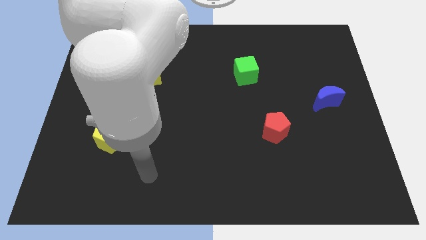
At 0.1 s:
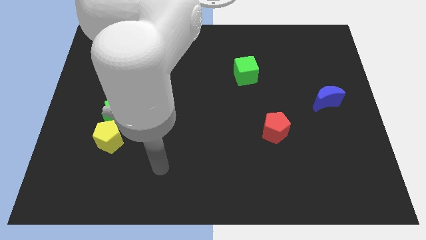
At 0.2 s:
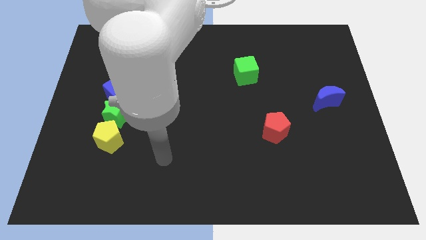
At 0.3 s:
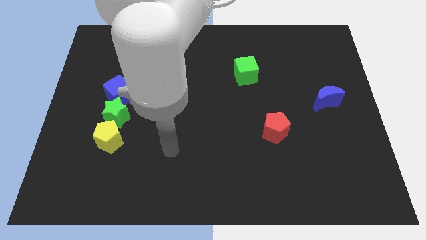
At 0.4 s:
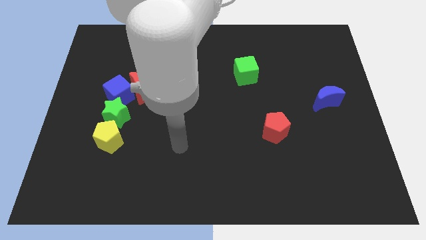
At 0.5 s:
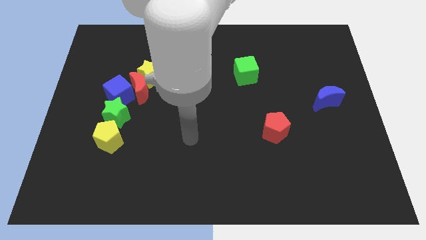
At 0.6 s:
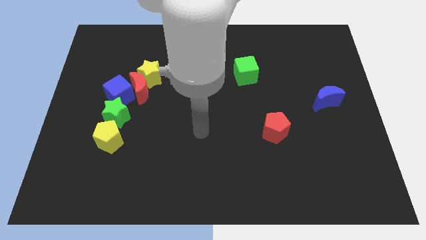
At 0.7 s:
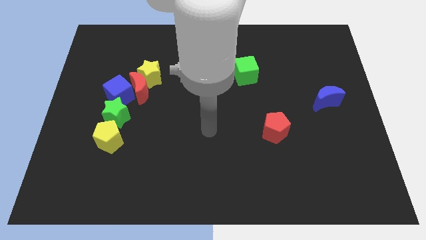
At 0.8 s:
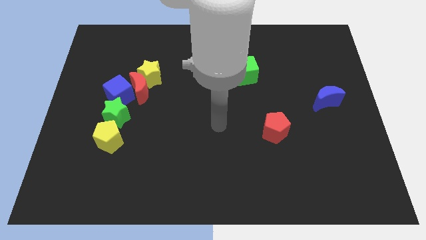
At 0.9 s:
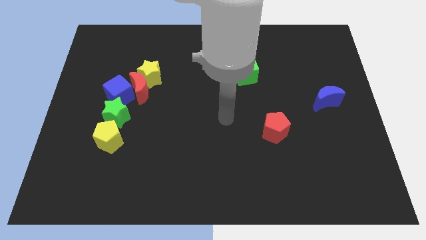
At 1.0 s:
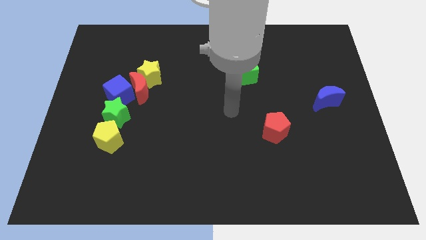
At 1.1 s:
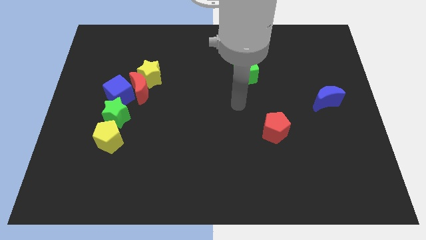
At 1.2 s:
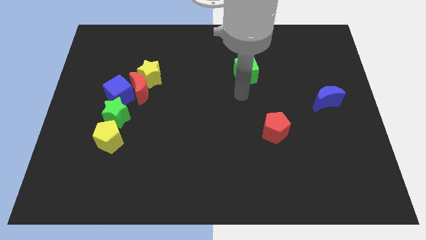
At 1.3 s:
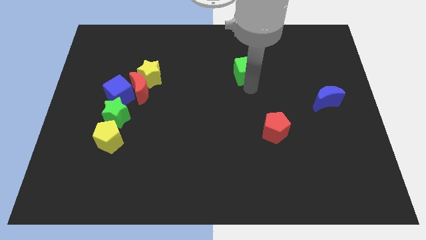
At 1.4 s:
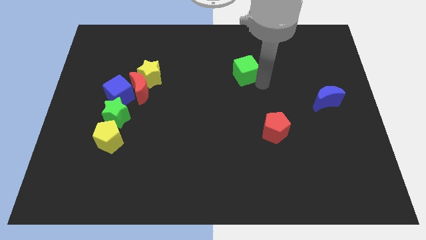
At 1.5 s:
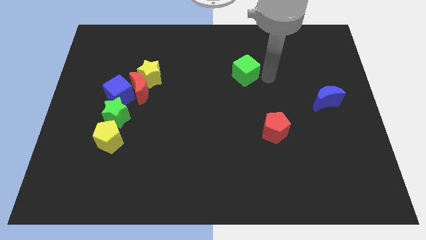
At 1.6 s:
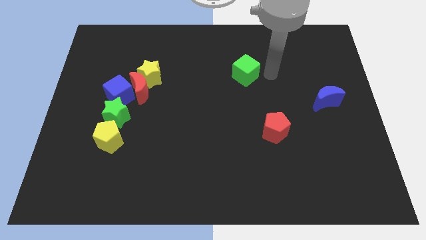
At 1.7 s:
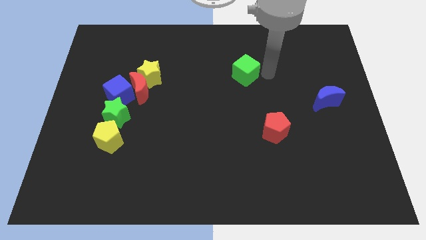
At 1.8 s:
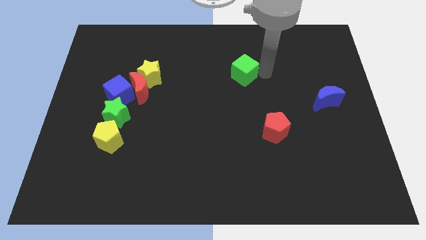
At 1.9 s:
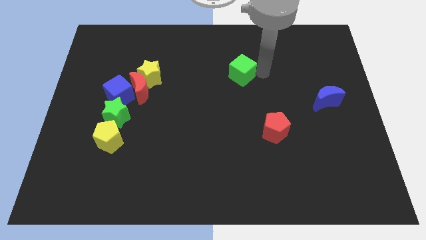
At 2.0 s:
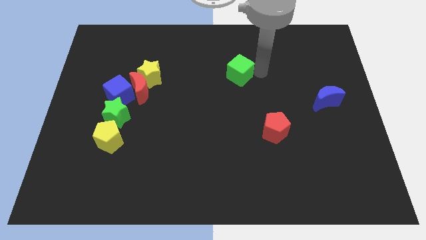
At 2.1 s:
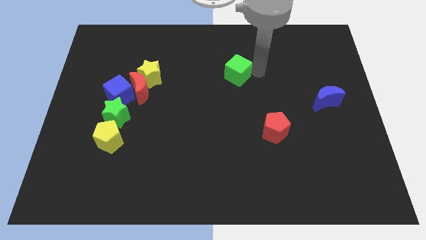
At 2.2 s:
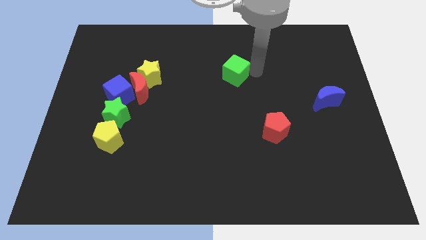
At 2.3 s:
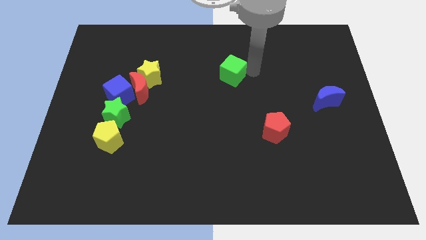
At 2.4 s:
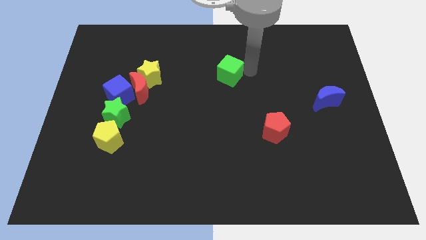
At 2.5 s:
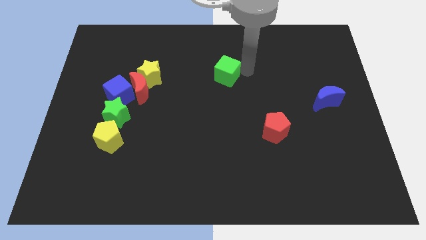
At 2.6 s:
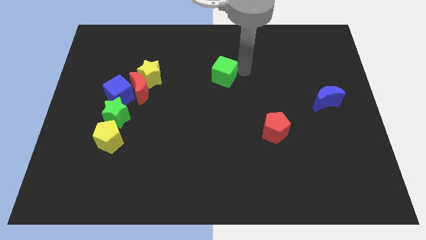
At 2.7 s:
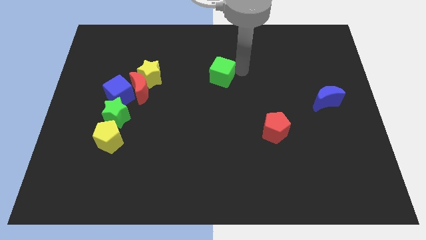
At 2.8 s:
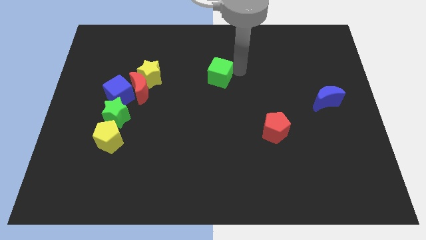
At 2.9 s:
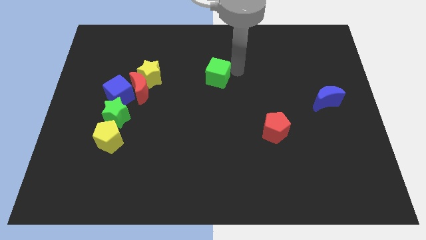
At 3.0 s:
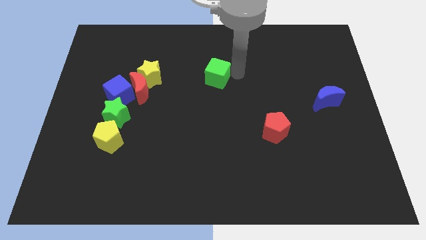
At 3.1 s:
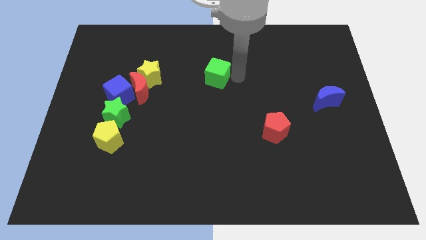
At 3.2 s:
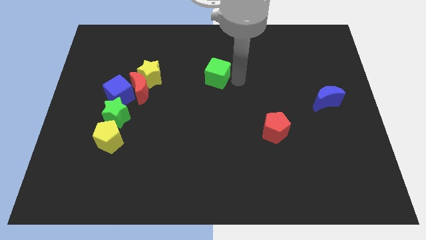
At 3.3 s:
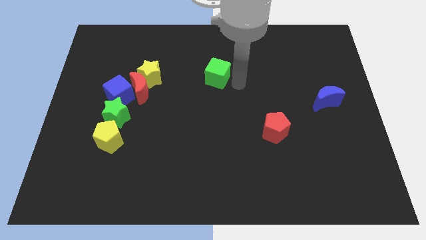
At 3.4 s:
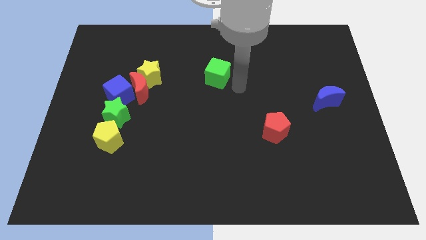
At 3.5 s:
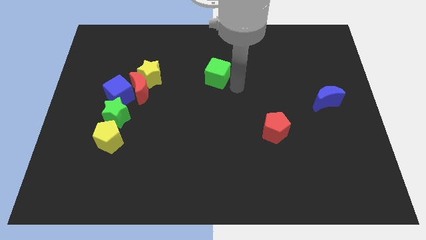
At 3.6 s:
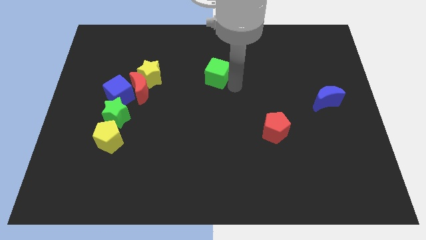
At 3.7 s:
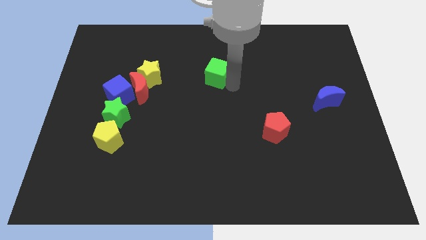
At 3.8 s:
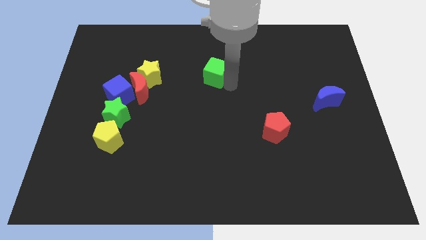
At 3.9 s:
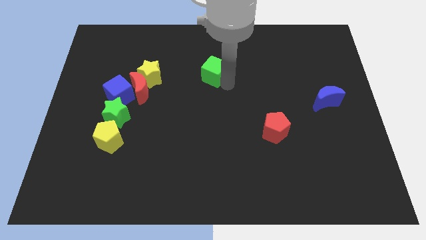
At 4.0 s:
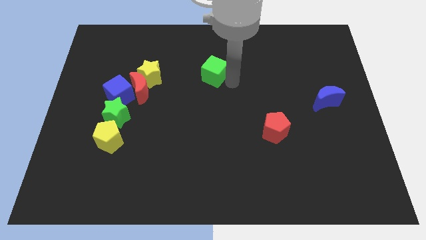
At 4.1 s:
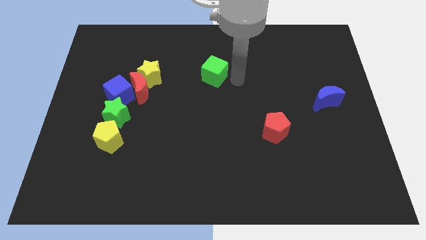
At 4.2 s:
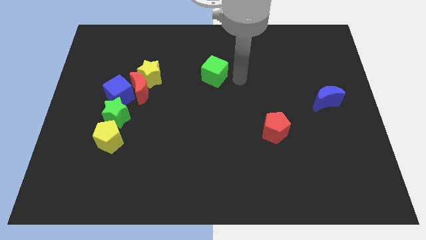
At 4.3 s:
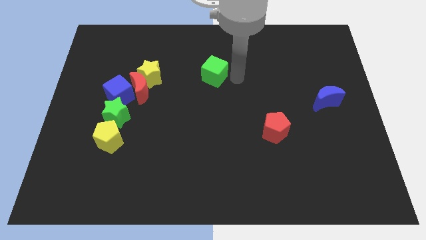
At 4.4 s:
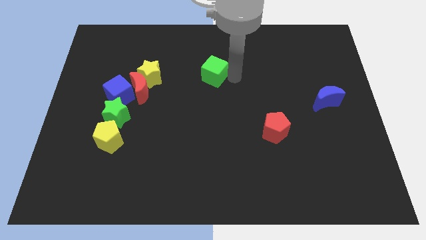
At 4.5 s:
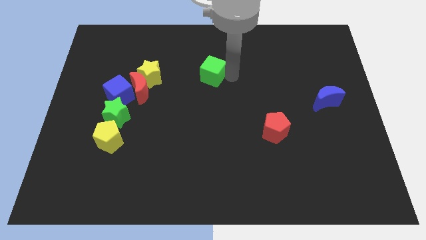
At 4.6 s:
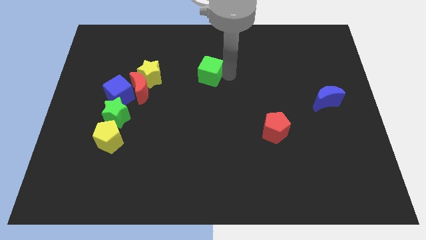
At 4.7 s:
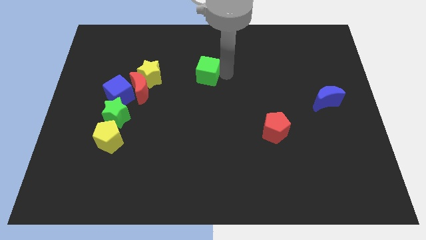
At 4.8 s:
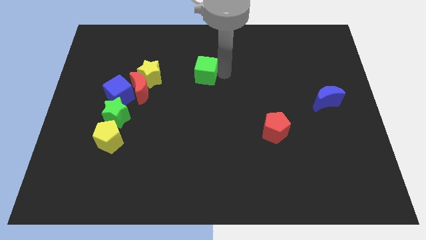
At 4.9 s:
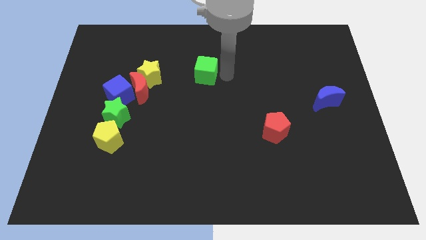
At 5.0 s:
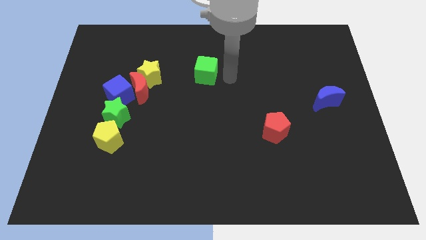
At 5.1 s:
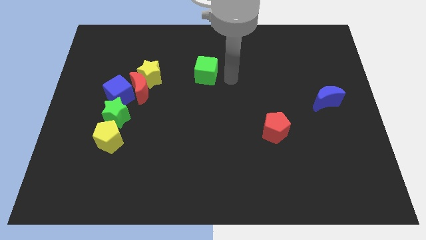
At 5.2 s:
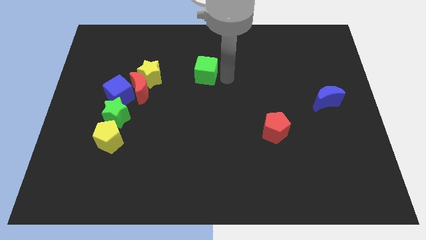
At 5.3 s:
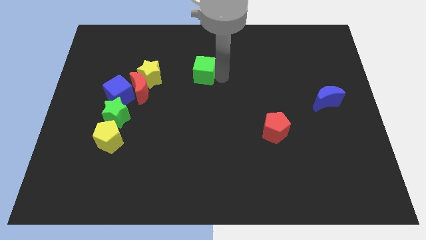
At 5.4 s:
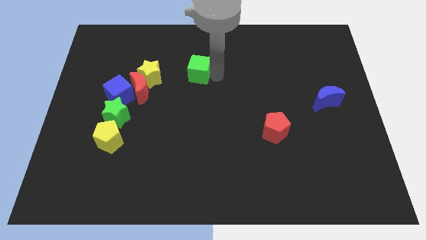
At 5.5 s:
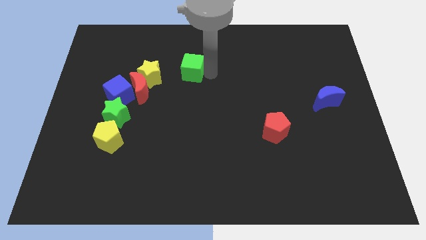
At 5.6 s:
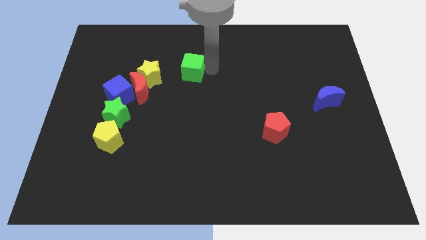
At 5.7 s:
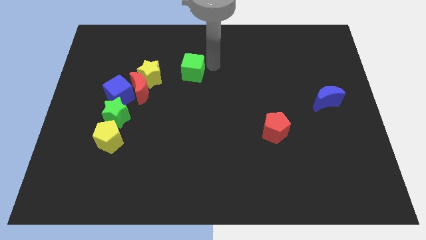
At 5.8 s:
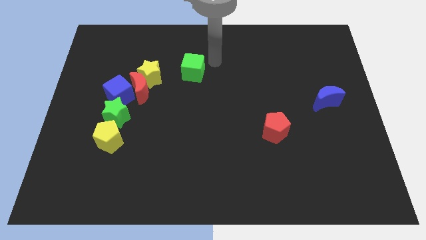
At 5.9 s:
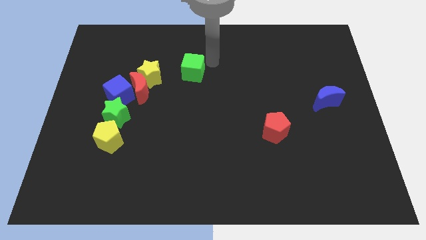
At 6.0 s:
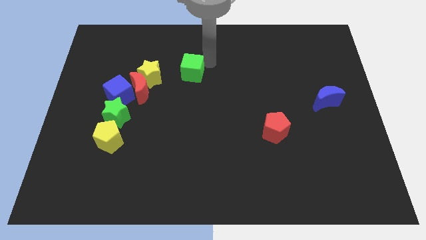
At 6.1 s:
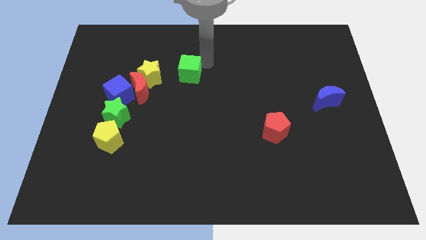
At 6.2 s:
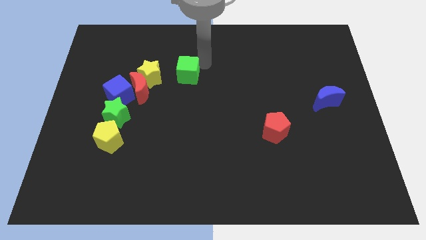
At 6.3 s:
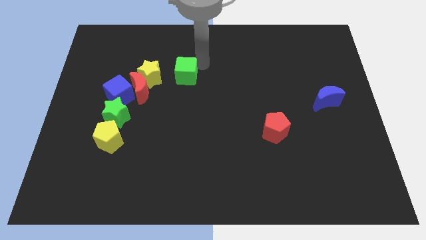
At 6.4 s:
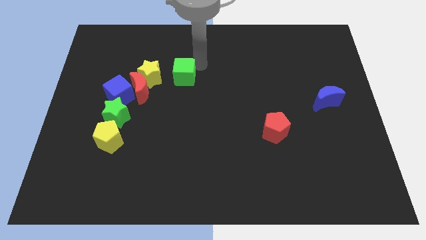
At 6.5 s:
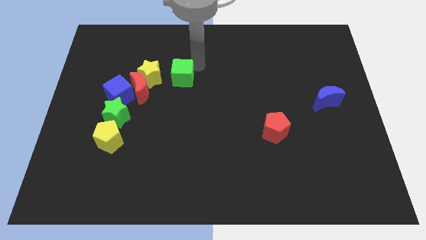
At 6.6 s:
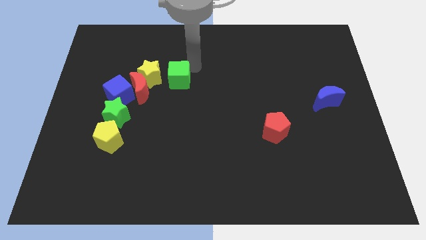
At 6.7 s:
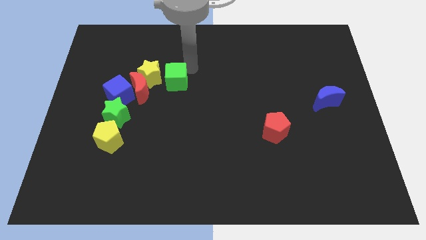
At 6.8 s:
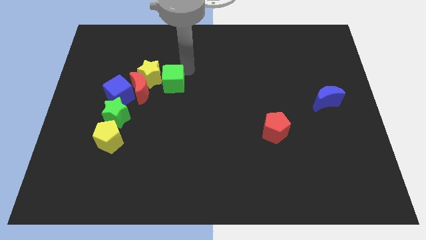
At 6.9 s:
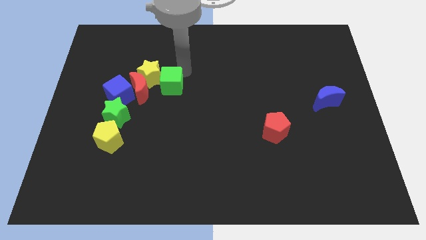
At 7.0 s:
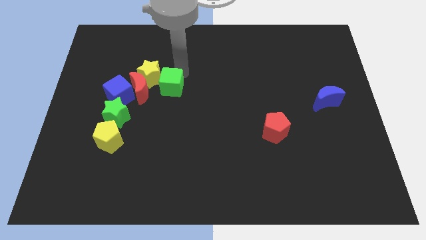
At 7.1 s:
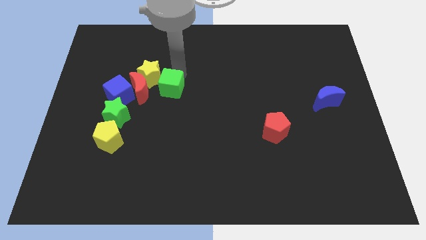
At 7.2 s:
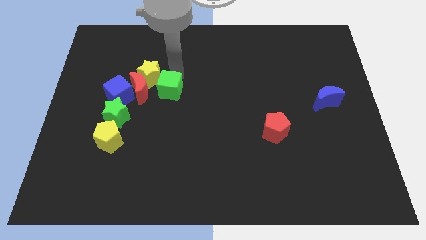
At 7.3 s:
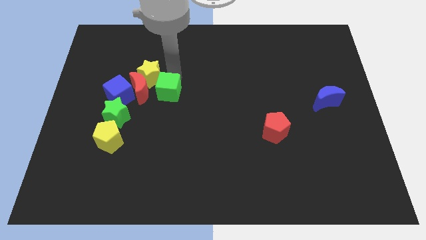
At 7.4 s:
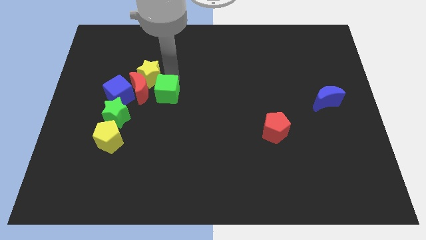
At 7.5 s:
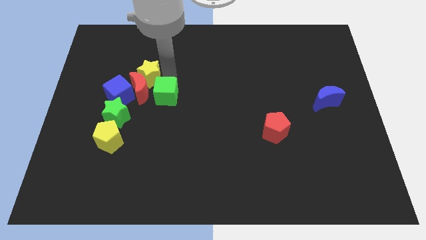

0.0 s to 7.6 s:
slide the green cube close to the red moon

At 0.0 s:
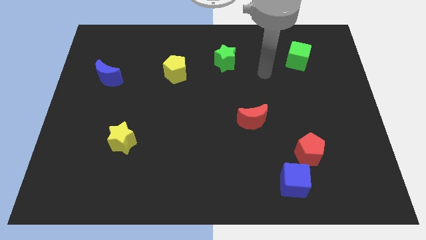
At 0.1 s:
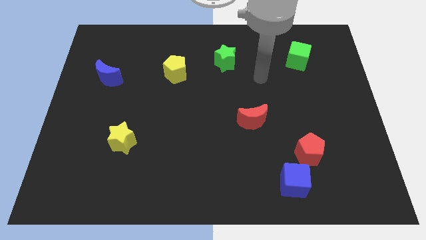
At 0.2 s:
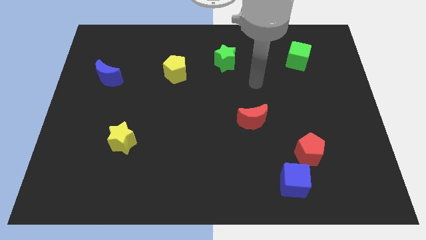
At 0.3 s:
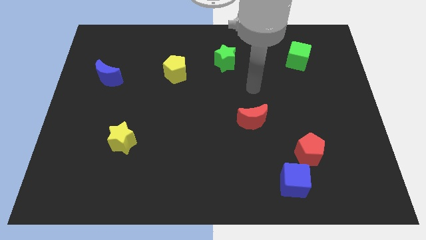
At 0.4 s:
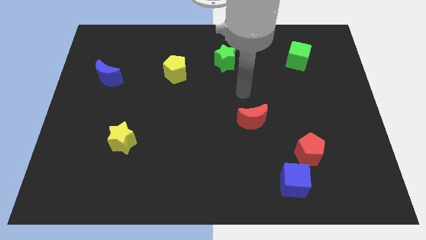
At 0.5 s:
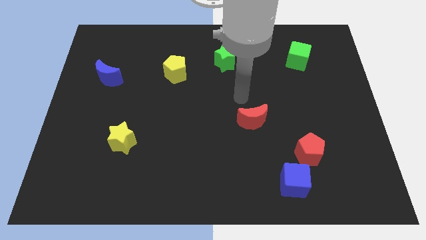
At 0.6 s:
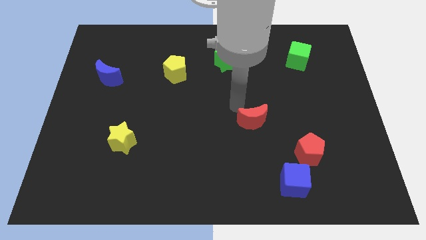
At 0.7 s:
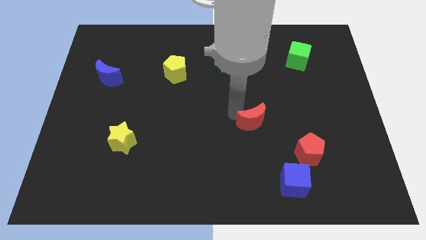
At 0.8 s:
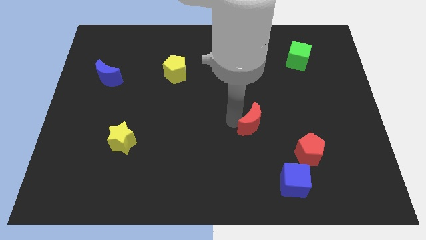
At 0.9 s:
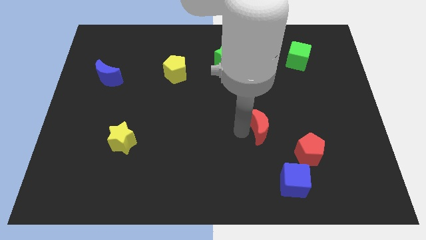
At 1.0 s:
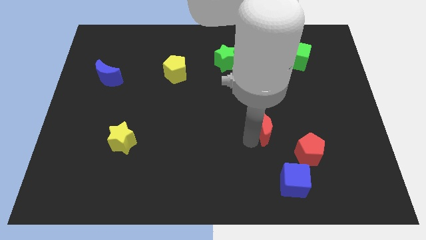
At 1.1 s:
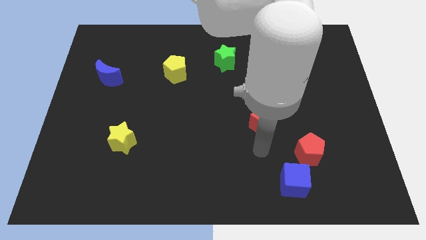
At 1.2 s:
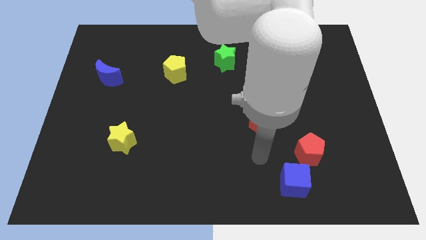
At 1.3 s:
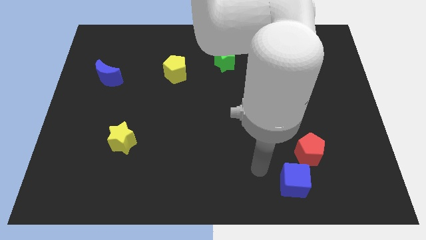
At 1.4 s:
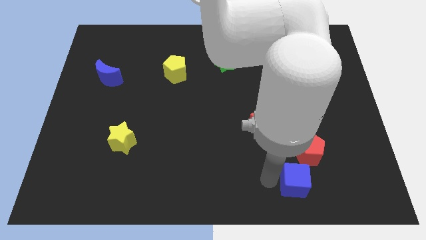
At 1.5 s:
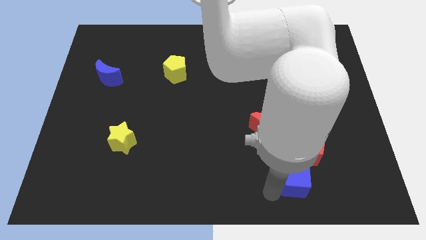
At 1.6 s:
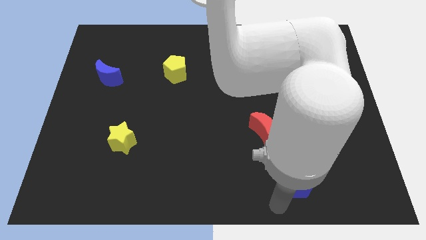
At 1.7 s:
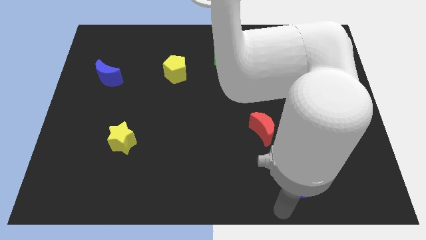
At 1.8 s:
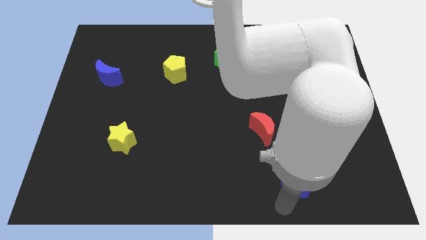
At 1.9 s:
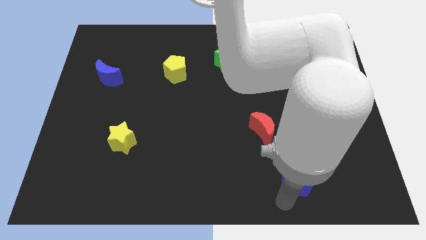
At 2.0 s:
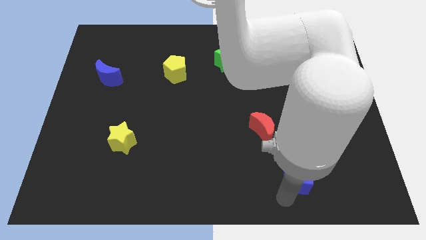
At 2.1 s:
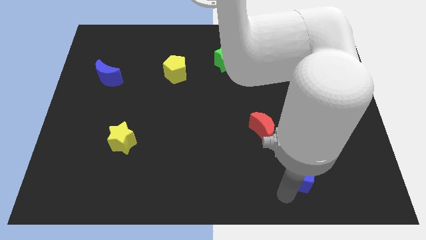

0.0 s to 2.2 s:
slide the blue cube towards the red pentagon
